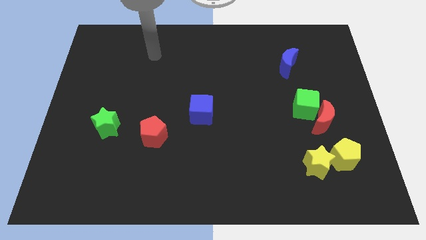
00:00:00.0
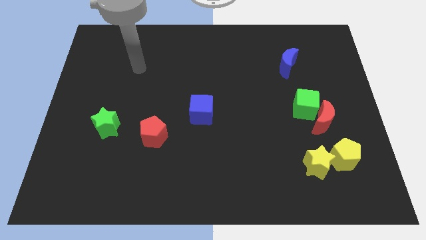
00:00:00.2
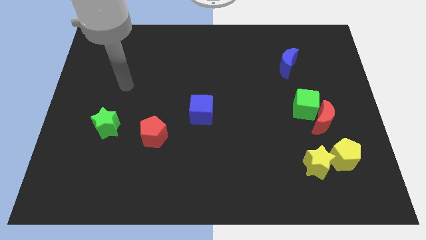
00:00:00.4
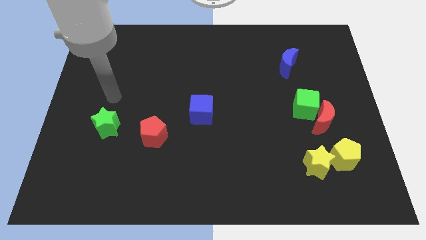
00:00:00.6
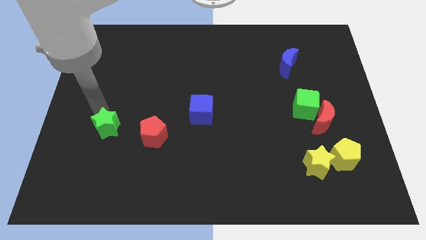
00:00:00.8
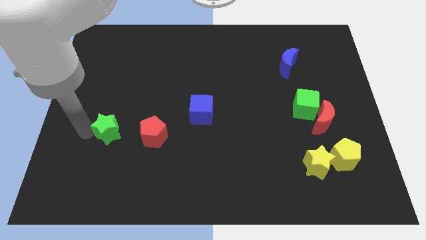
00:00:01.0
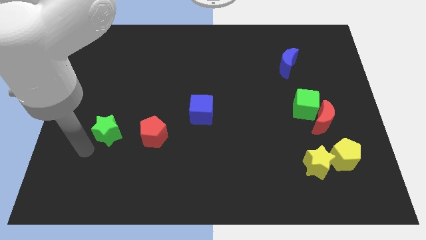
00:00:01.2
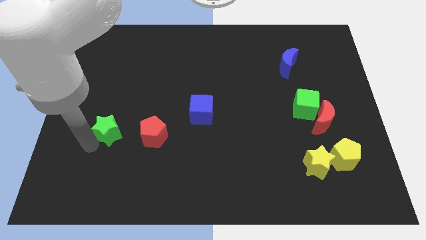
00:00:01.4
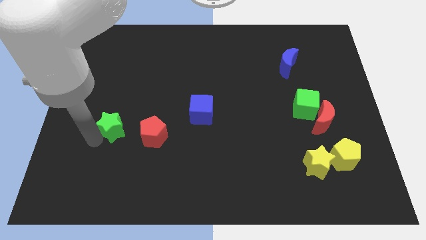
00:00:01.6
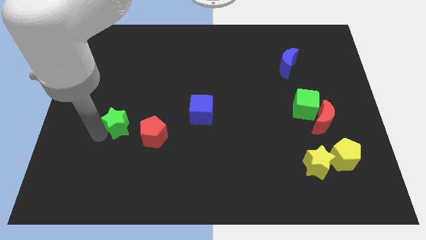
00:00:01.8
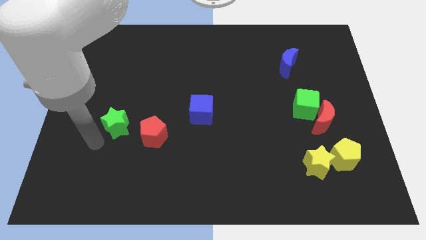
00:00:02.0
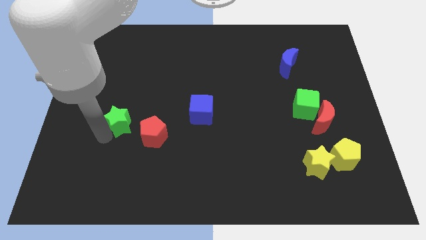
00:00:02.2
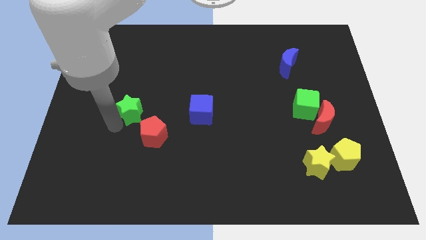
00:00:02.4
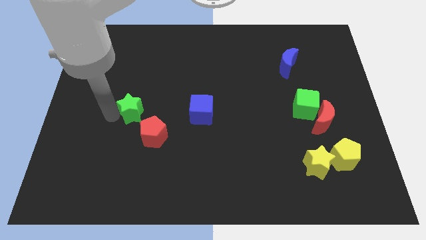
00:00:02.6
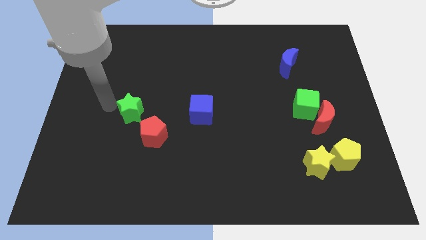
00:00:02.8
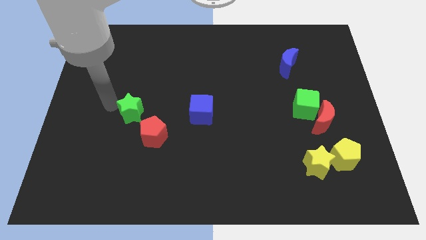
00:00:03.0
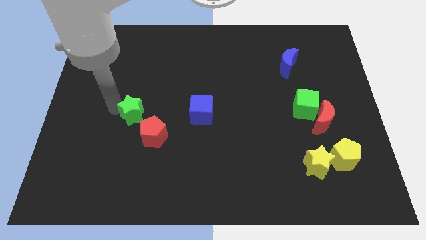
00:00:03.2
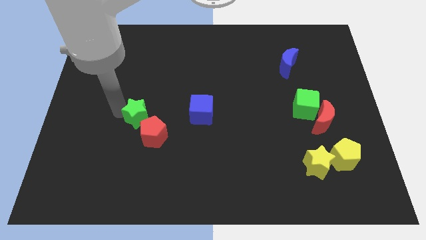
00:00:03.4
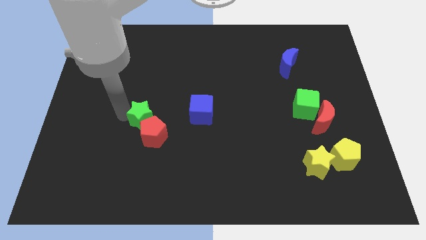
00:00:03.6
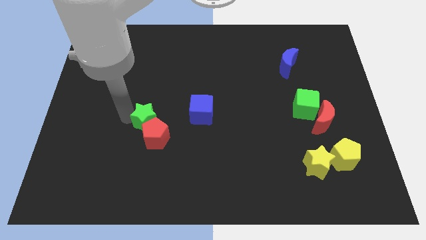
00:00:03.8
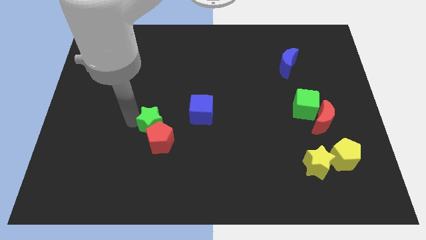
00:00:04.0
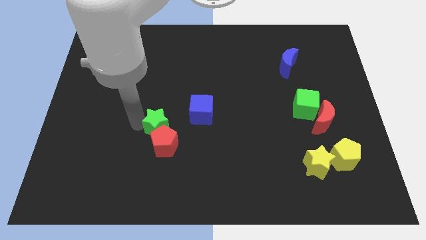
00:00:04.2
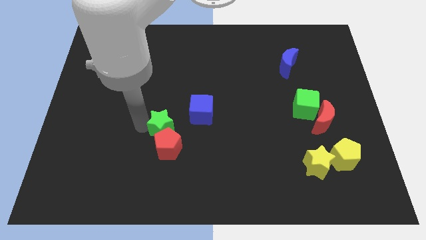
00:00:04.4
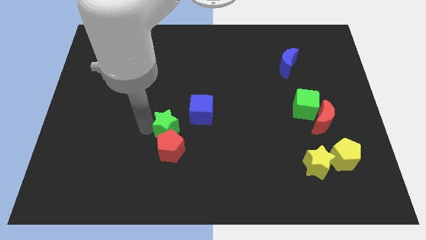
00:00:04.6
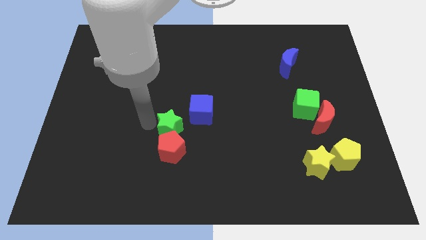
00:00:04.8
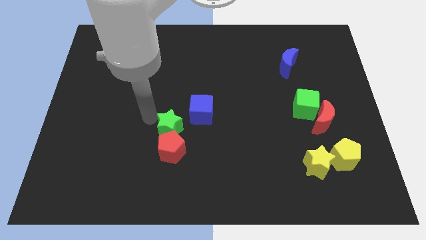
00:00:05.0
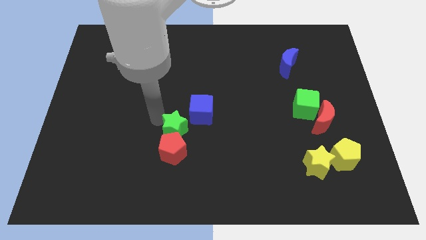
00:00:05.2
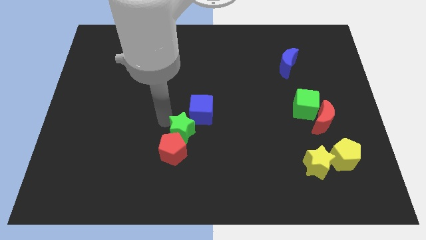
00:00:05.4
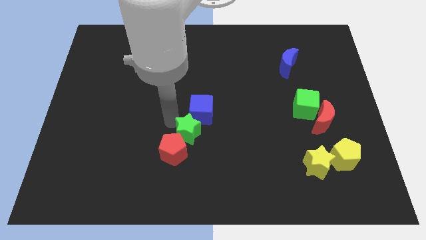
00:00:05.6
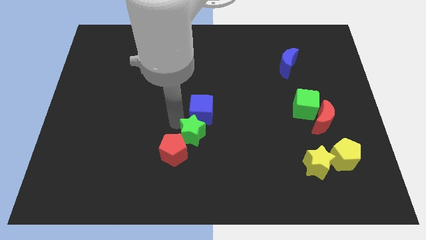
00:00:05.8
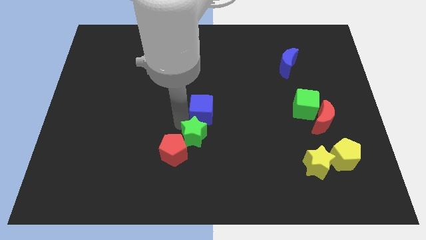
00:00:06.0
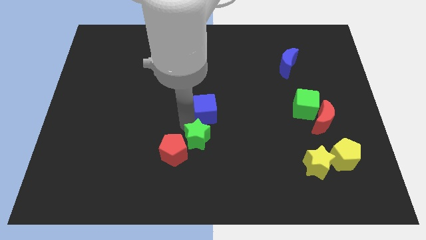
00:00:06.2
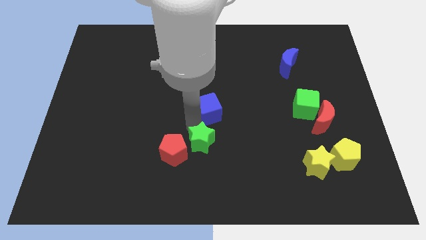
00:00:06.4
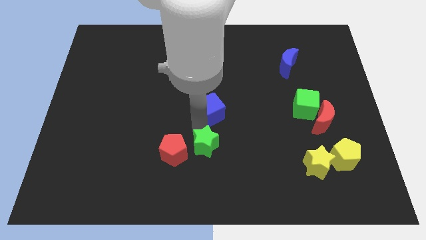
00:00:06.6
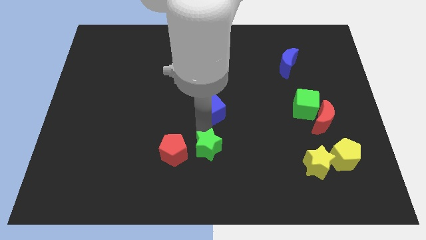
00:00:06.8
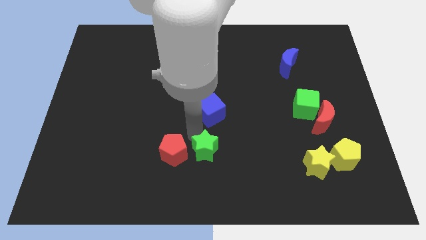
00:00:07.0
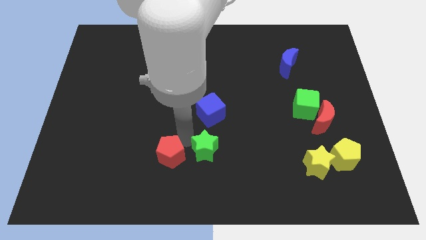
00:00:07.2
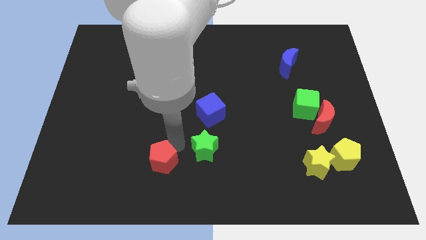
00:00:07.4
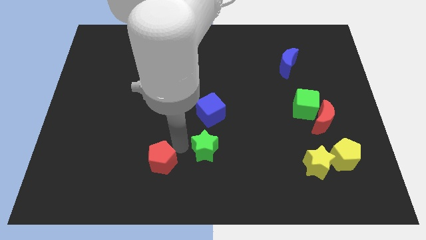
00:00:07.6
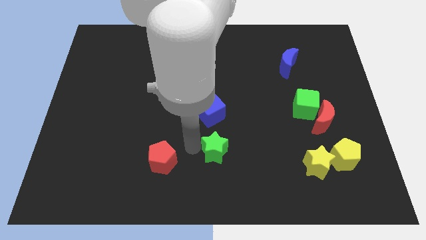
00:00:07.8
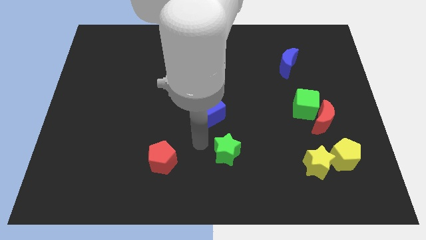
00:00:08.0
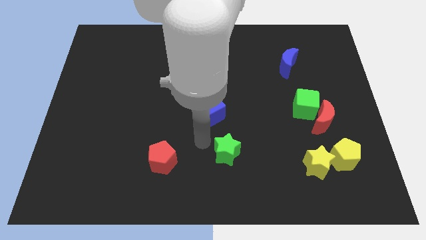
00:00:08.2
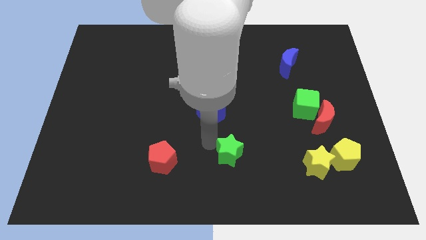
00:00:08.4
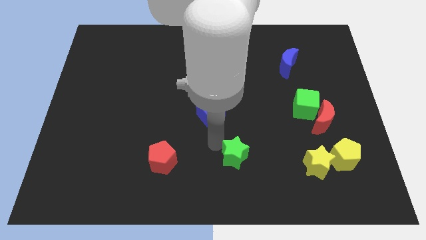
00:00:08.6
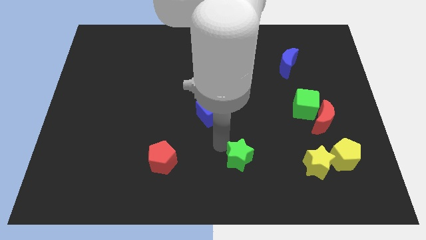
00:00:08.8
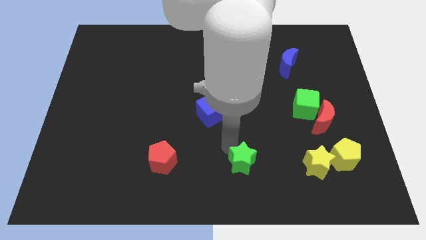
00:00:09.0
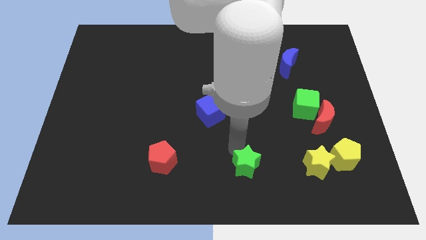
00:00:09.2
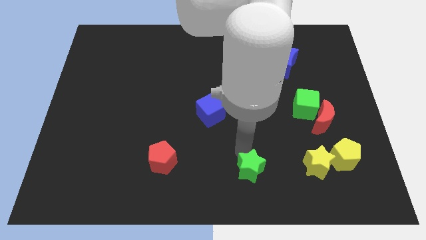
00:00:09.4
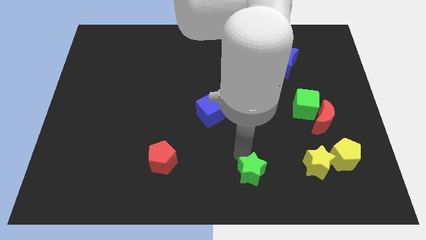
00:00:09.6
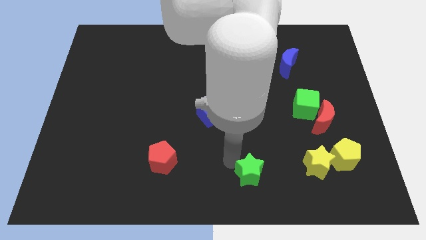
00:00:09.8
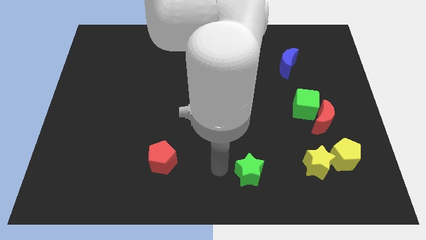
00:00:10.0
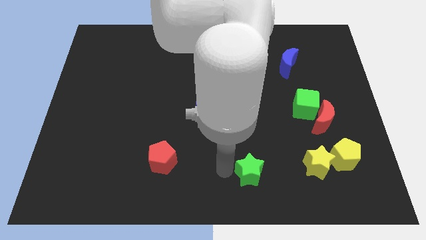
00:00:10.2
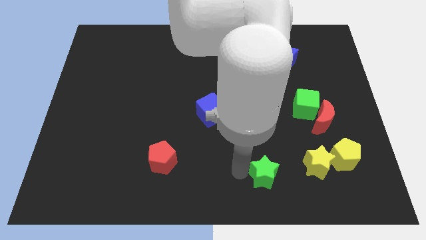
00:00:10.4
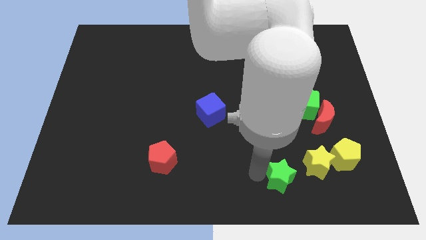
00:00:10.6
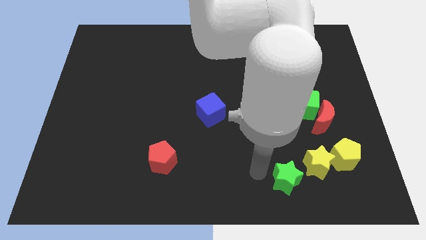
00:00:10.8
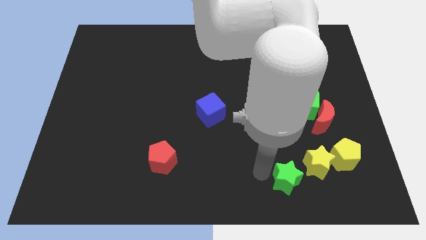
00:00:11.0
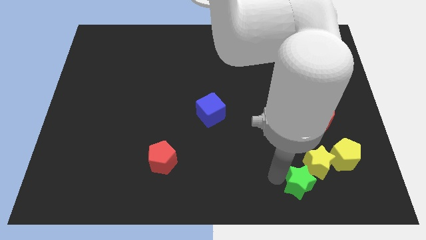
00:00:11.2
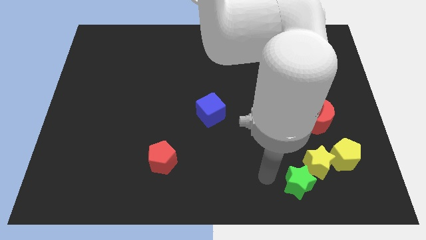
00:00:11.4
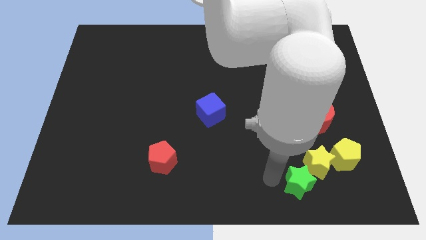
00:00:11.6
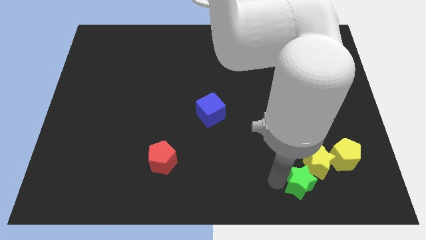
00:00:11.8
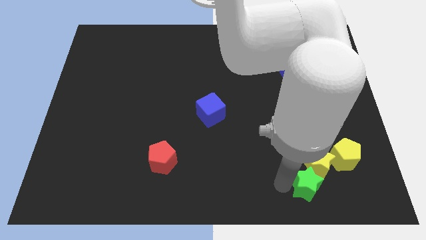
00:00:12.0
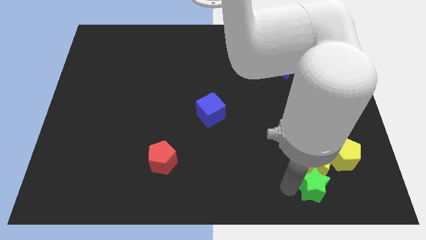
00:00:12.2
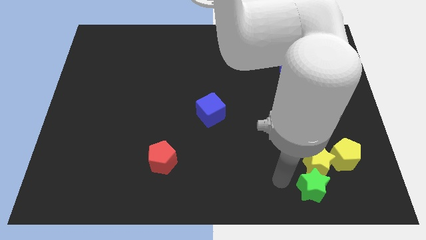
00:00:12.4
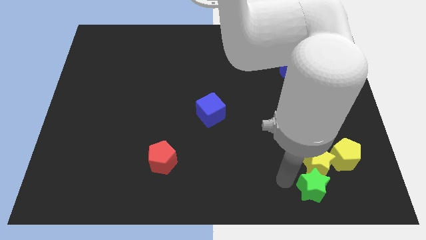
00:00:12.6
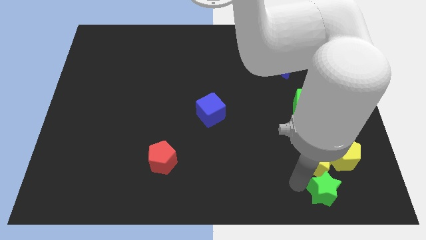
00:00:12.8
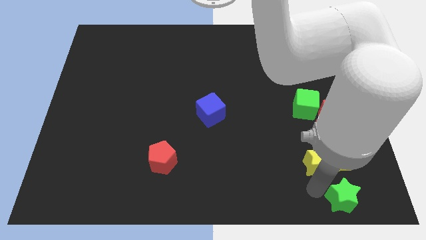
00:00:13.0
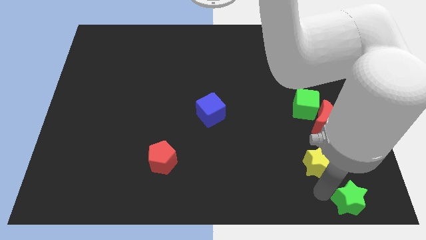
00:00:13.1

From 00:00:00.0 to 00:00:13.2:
slide the green star to the bottom right

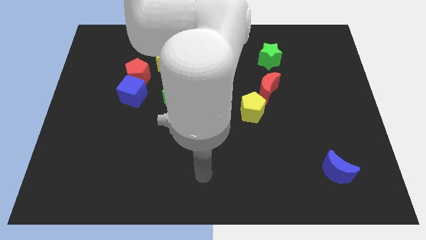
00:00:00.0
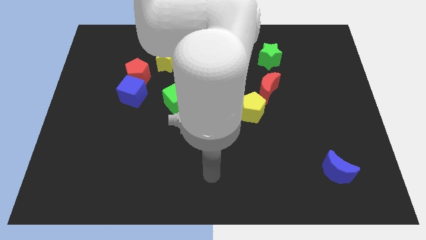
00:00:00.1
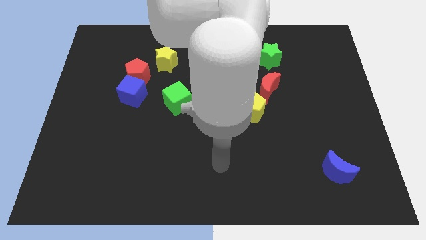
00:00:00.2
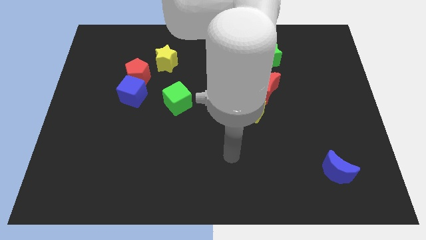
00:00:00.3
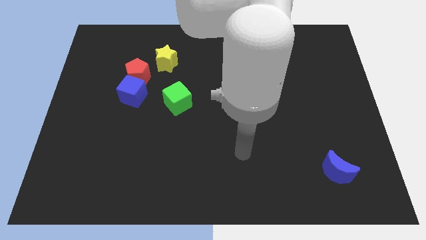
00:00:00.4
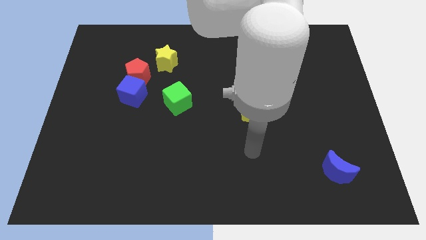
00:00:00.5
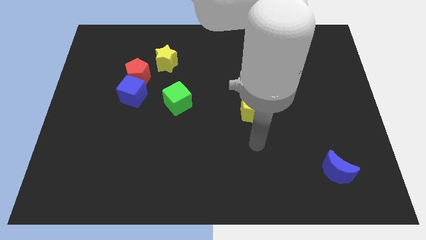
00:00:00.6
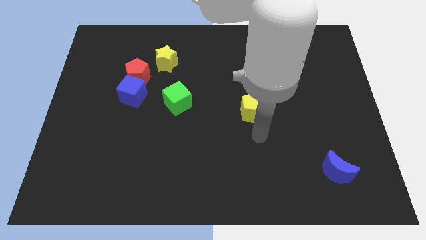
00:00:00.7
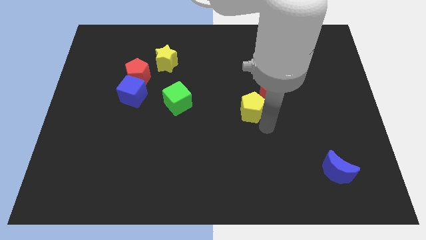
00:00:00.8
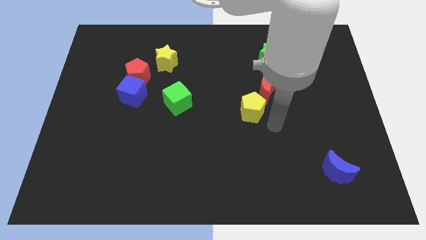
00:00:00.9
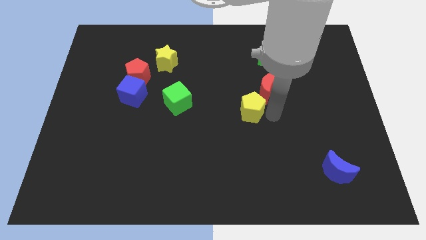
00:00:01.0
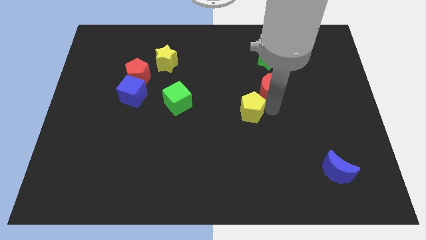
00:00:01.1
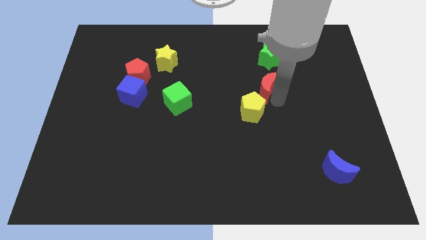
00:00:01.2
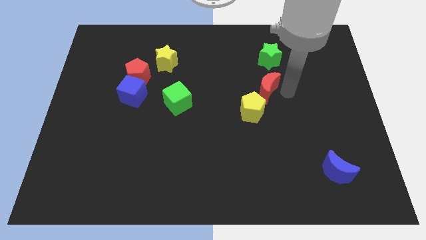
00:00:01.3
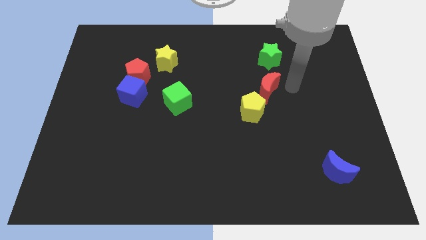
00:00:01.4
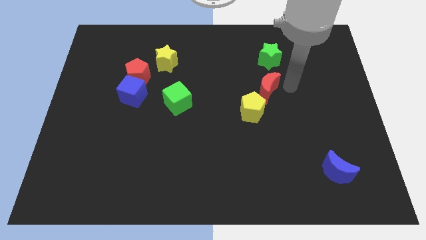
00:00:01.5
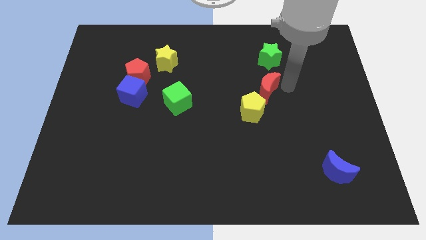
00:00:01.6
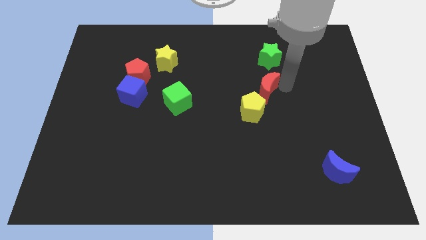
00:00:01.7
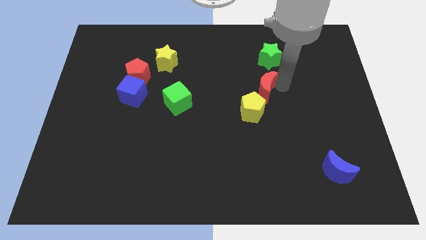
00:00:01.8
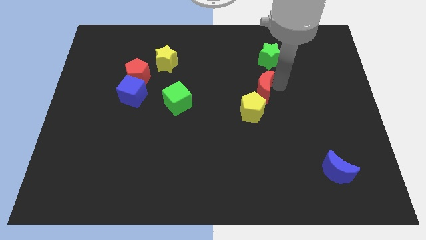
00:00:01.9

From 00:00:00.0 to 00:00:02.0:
slide the red moon to the center of the board
